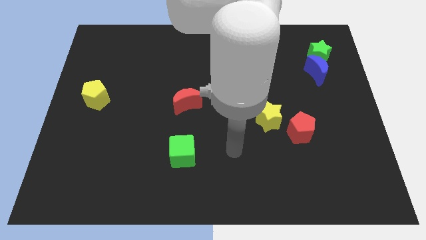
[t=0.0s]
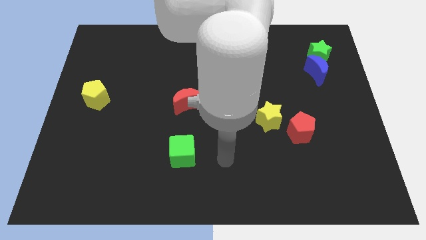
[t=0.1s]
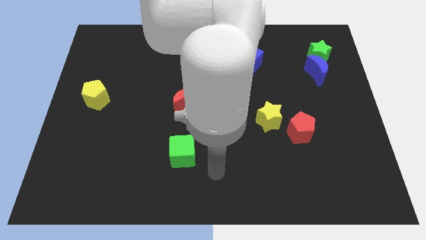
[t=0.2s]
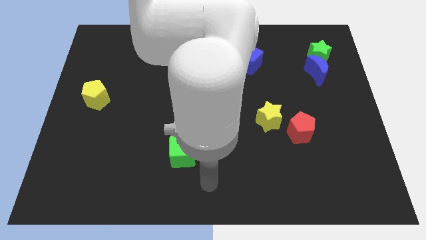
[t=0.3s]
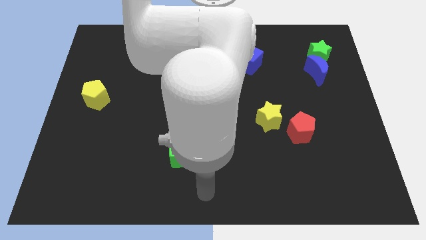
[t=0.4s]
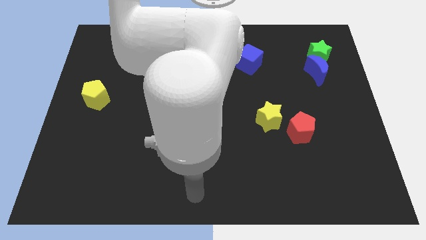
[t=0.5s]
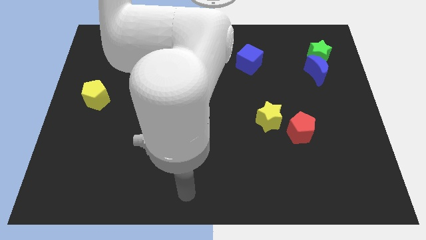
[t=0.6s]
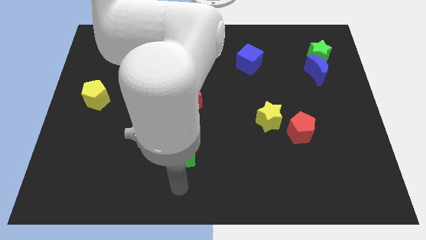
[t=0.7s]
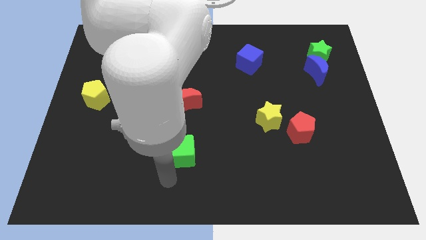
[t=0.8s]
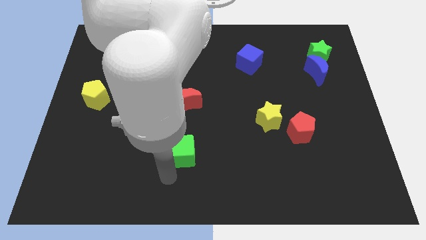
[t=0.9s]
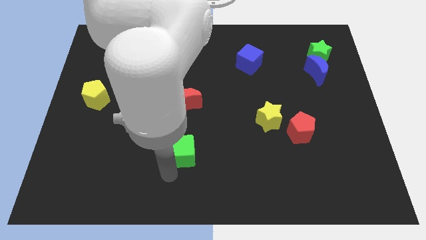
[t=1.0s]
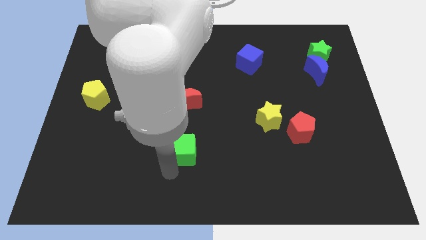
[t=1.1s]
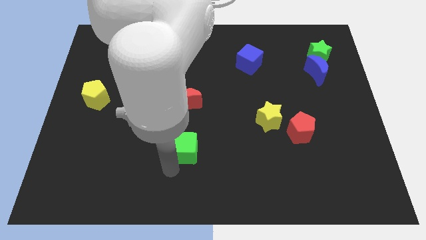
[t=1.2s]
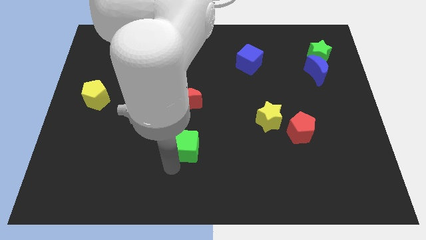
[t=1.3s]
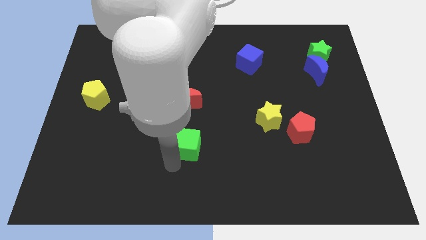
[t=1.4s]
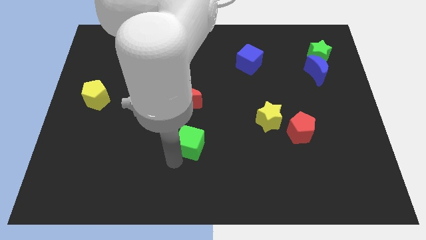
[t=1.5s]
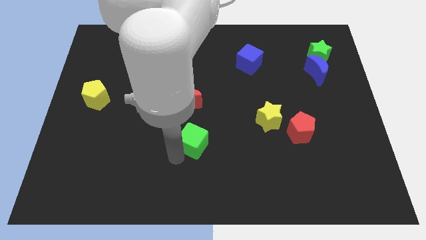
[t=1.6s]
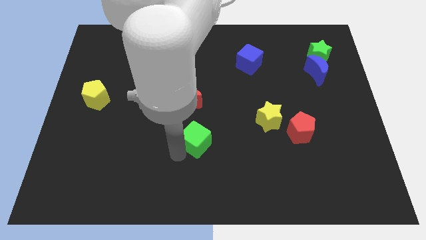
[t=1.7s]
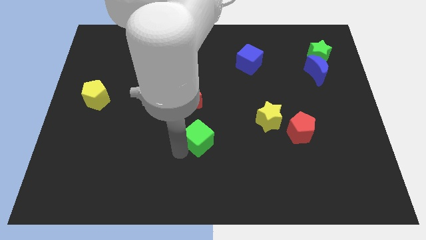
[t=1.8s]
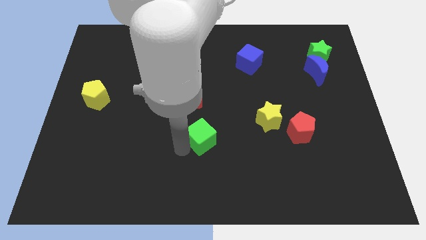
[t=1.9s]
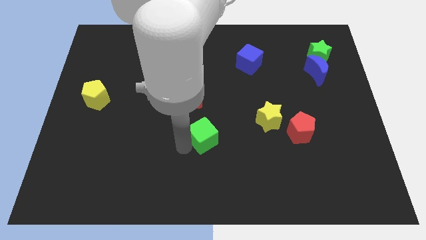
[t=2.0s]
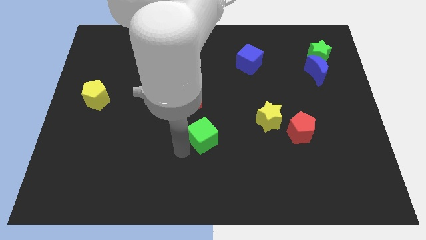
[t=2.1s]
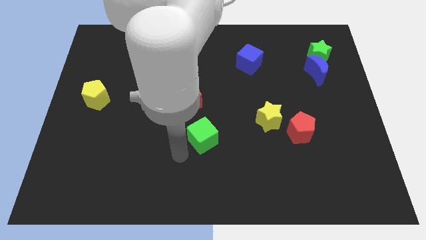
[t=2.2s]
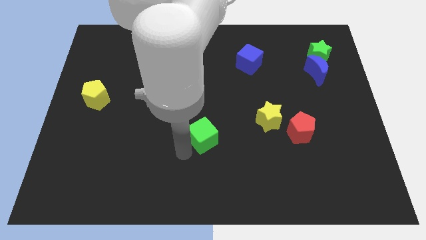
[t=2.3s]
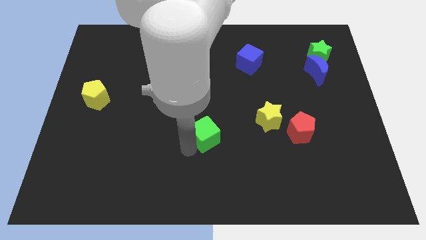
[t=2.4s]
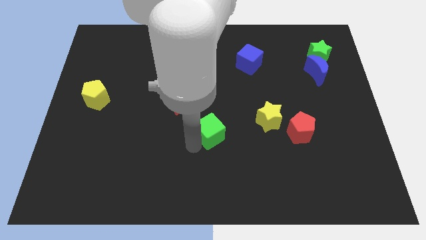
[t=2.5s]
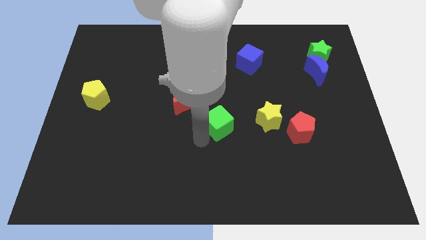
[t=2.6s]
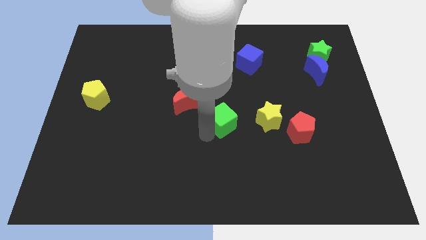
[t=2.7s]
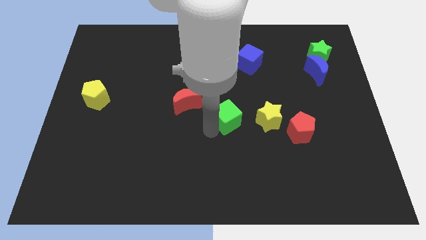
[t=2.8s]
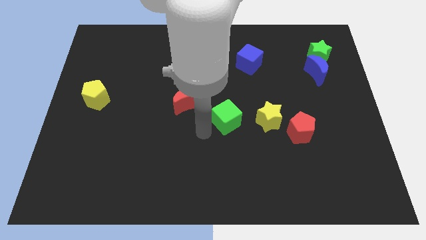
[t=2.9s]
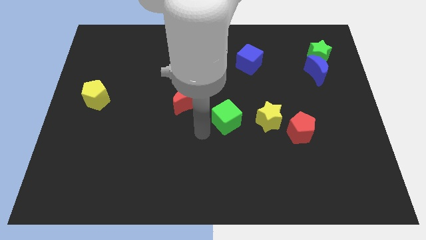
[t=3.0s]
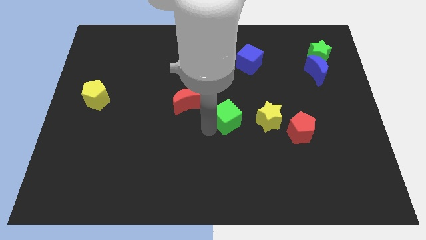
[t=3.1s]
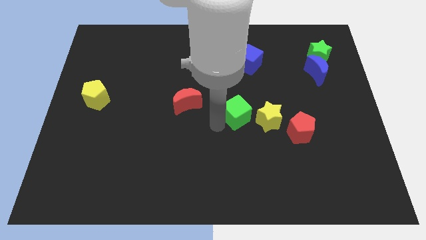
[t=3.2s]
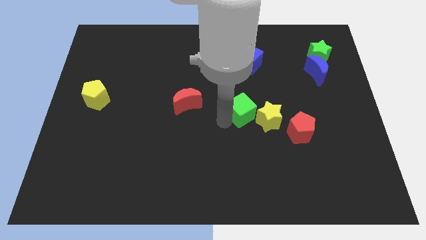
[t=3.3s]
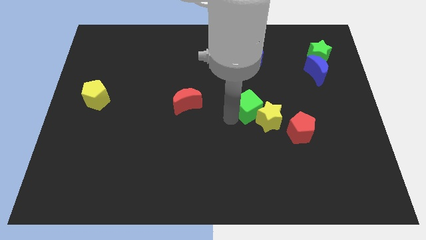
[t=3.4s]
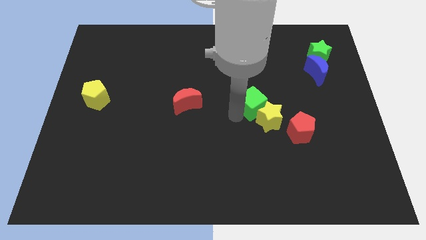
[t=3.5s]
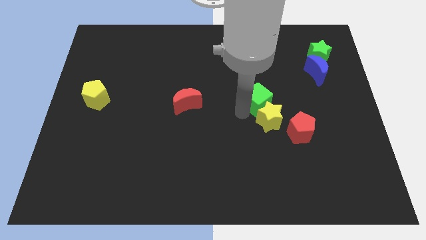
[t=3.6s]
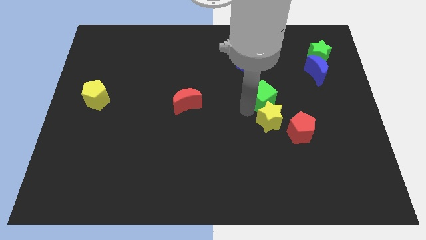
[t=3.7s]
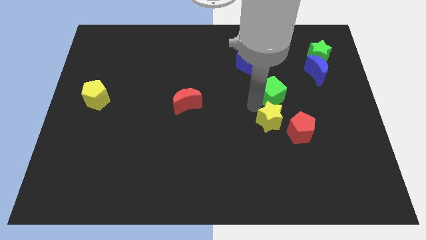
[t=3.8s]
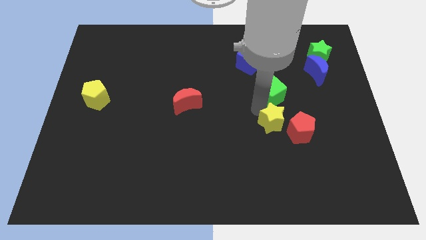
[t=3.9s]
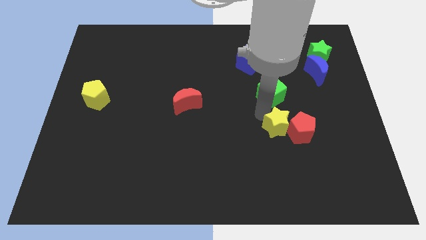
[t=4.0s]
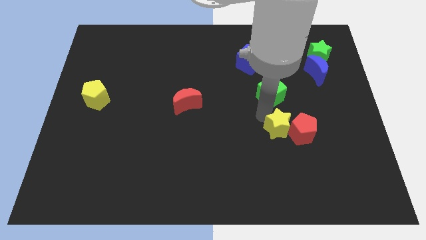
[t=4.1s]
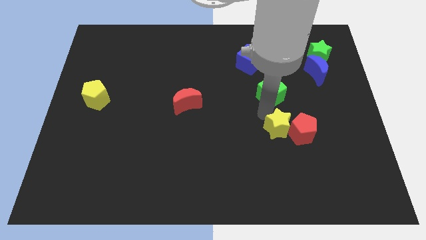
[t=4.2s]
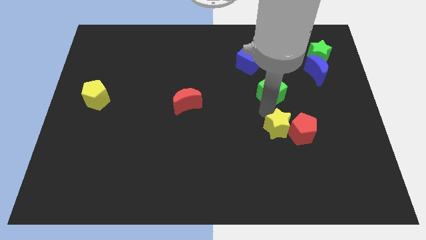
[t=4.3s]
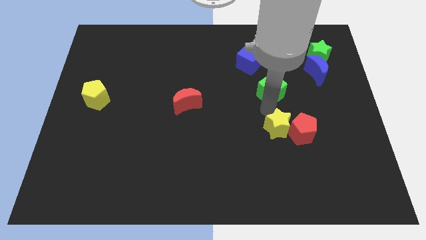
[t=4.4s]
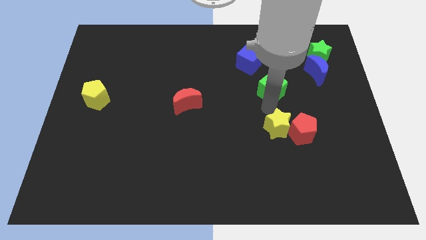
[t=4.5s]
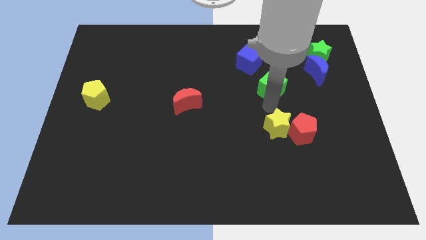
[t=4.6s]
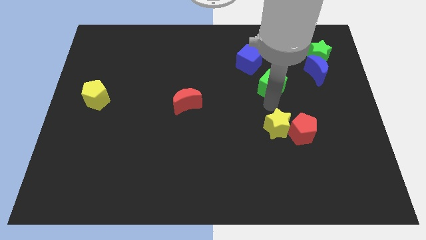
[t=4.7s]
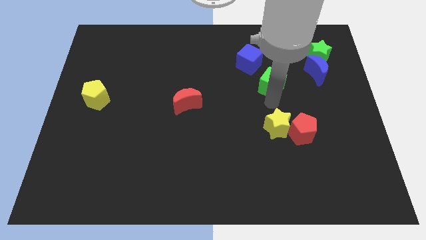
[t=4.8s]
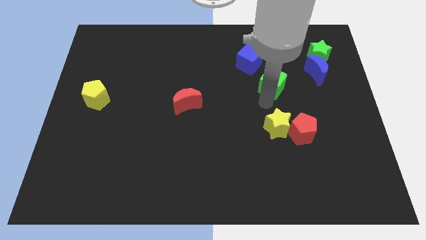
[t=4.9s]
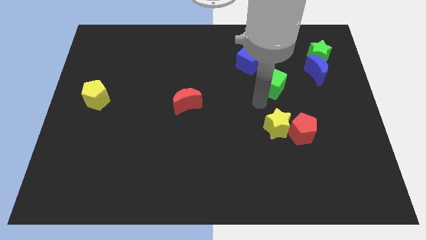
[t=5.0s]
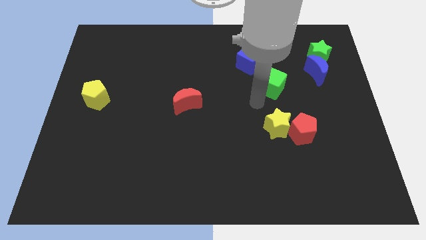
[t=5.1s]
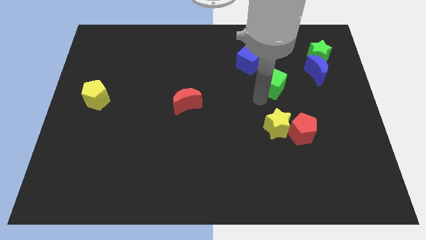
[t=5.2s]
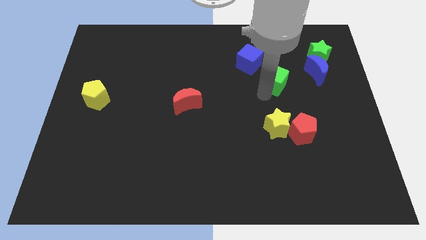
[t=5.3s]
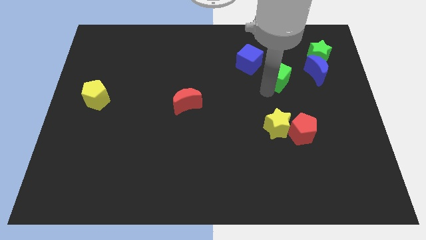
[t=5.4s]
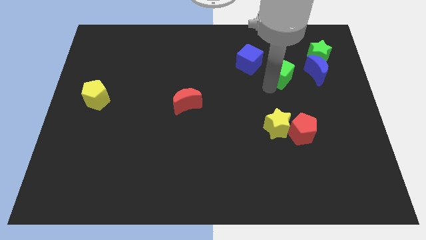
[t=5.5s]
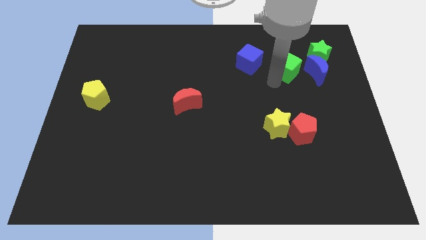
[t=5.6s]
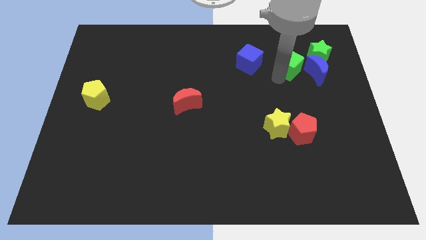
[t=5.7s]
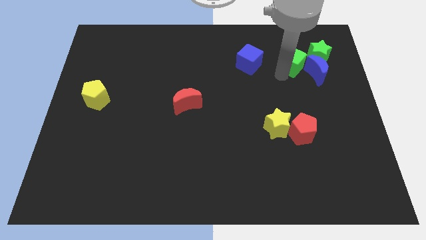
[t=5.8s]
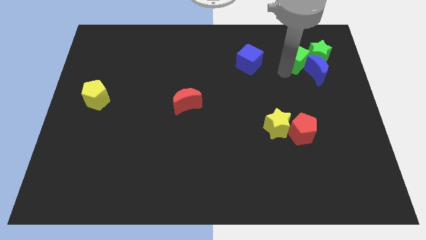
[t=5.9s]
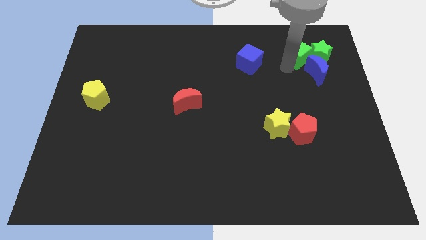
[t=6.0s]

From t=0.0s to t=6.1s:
slide the green cube towards the green star

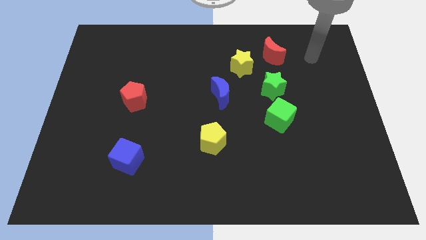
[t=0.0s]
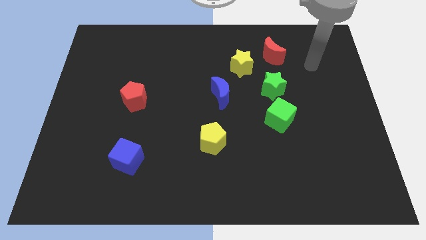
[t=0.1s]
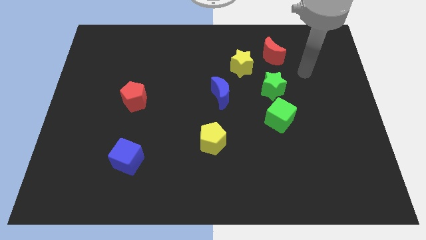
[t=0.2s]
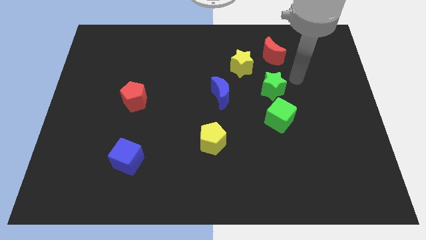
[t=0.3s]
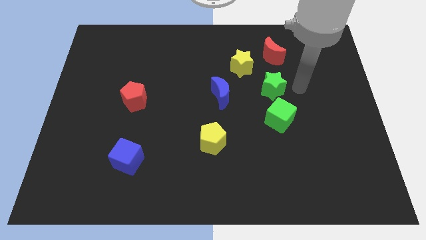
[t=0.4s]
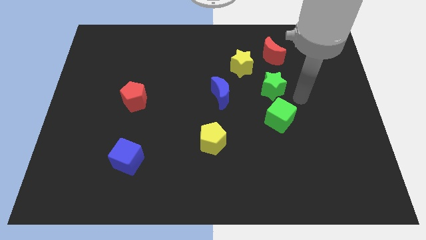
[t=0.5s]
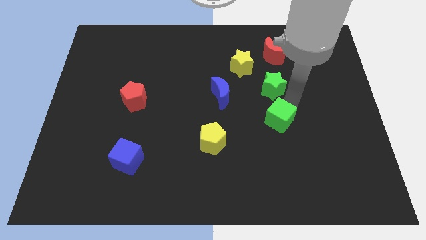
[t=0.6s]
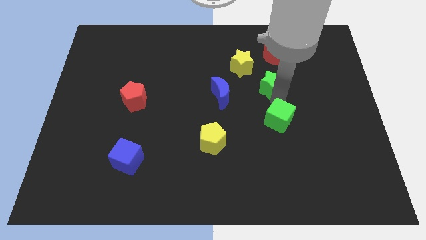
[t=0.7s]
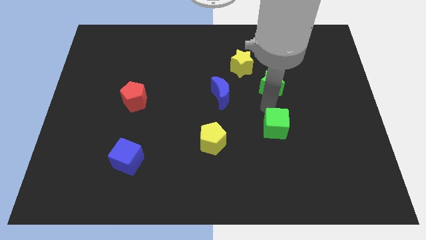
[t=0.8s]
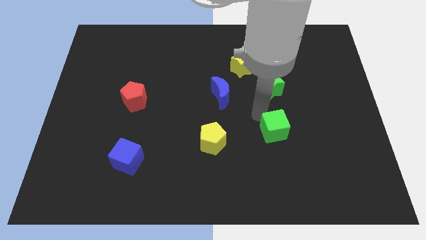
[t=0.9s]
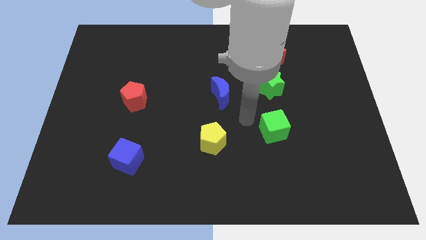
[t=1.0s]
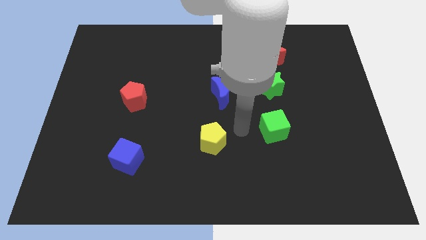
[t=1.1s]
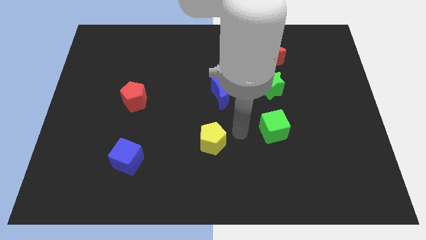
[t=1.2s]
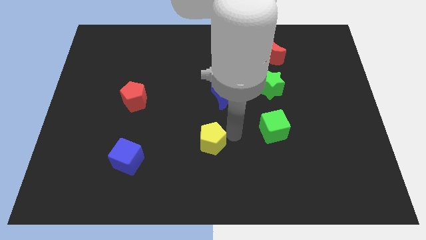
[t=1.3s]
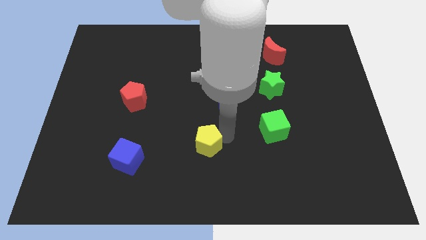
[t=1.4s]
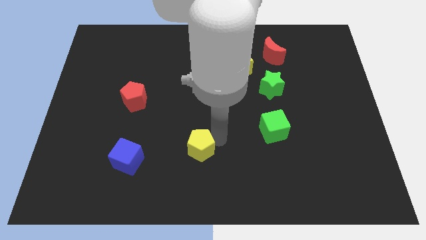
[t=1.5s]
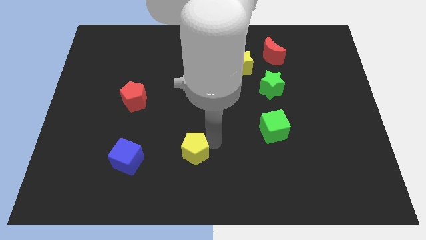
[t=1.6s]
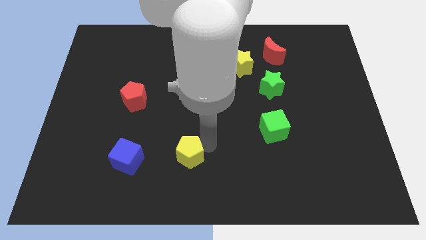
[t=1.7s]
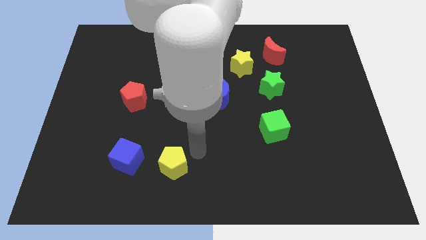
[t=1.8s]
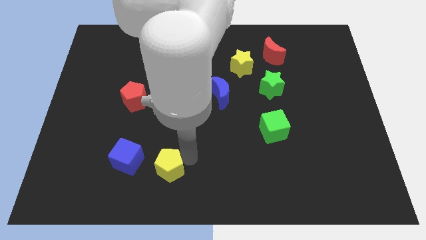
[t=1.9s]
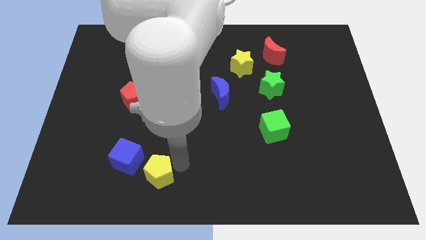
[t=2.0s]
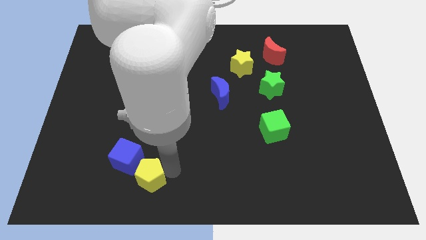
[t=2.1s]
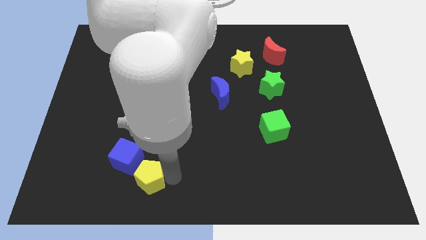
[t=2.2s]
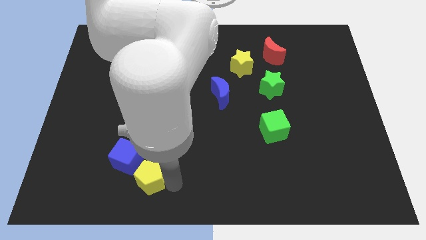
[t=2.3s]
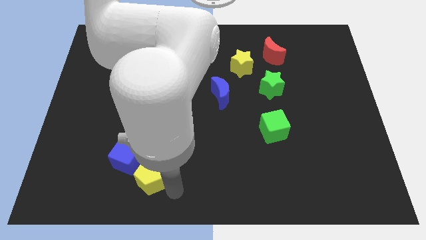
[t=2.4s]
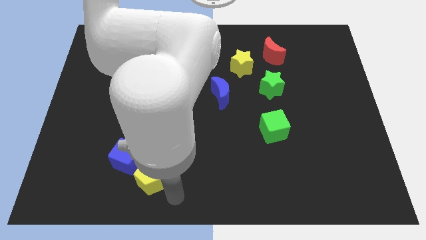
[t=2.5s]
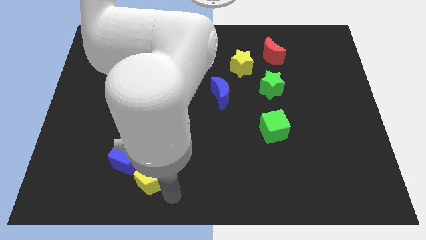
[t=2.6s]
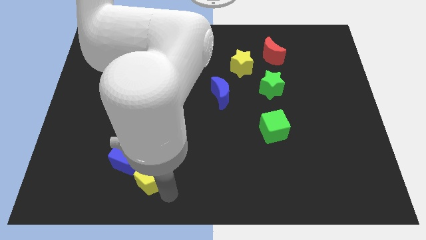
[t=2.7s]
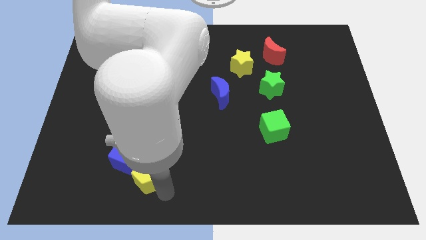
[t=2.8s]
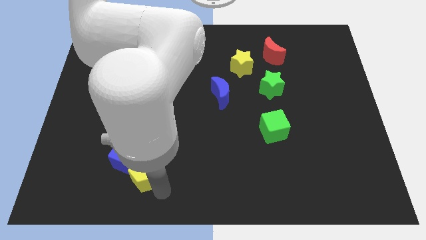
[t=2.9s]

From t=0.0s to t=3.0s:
move the yellow pentagon next to the blue cube
